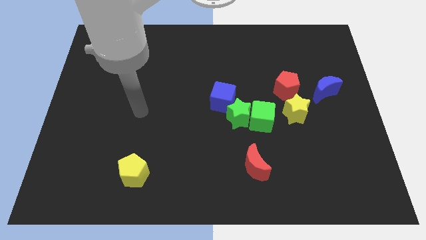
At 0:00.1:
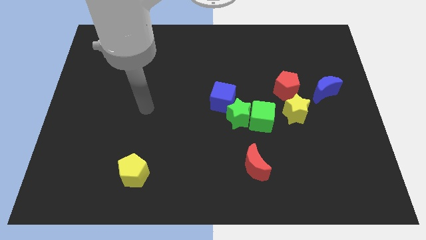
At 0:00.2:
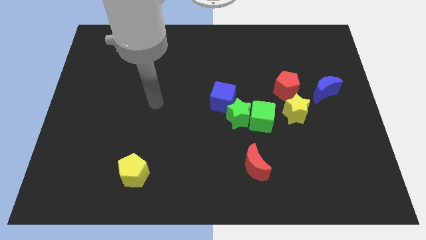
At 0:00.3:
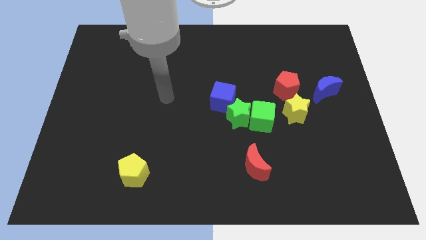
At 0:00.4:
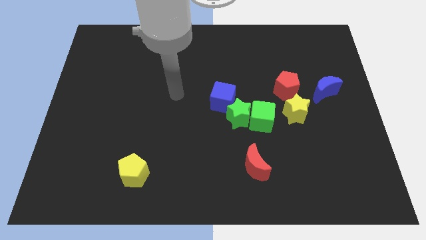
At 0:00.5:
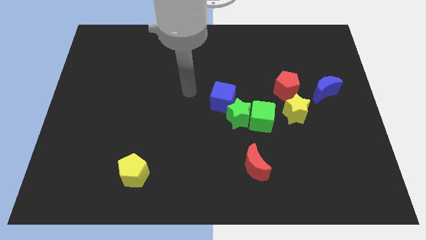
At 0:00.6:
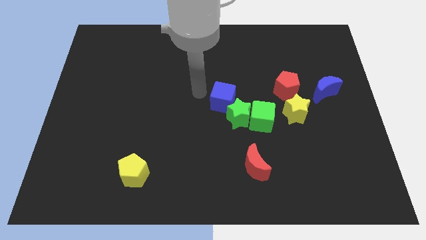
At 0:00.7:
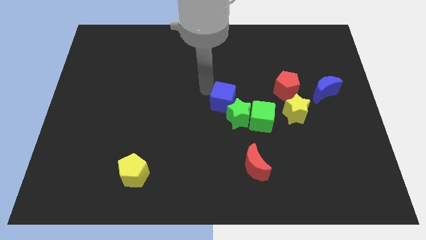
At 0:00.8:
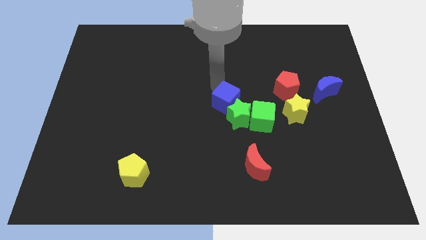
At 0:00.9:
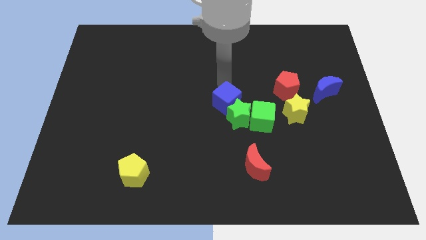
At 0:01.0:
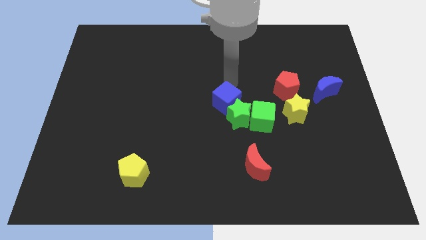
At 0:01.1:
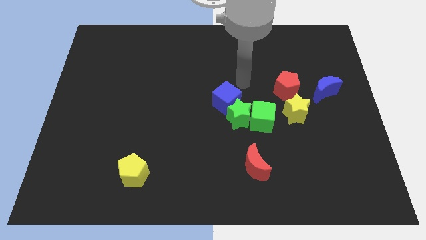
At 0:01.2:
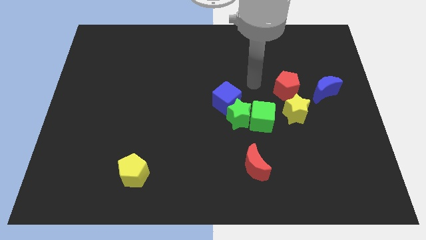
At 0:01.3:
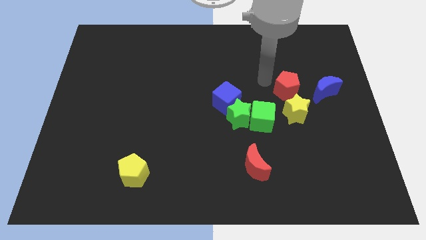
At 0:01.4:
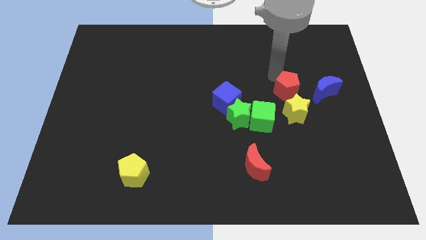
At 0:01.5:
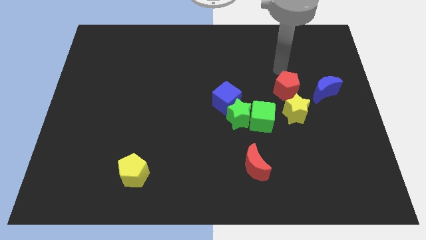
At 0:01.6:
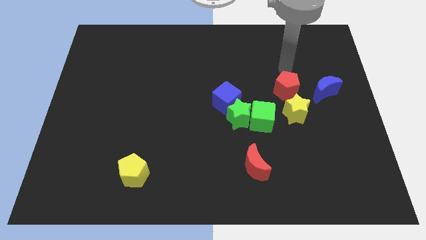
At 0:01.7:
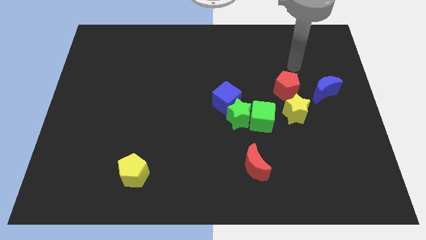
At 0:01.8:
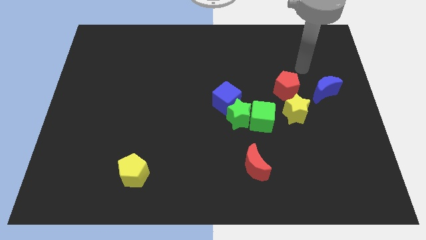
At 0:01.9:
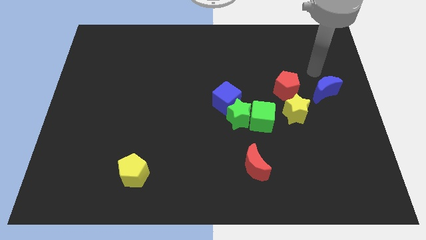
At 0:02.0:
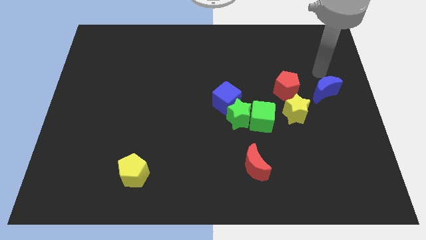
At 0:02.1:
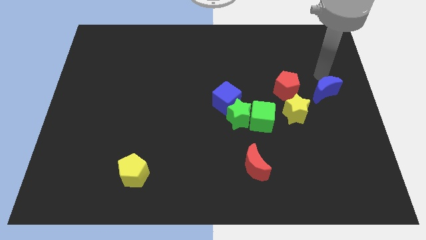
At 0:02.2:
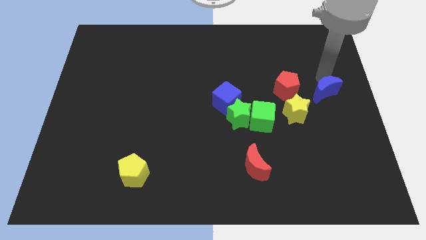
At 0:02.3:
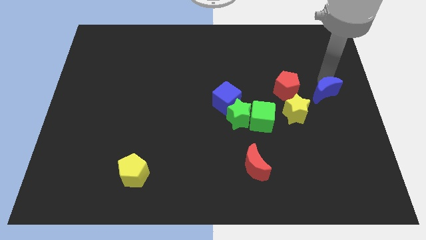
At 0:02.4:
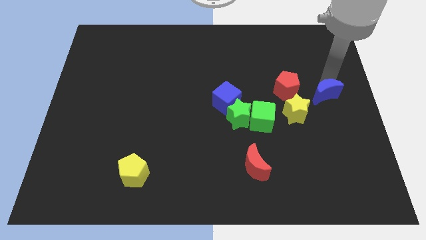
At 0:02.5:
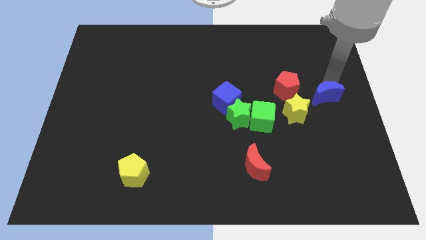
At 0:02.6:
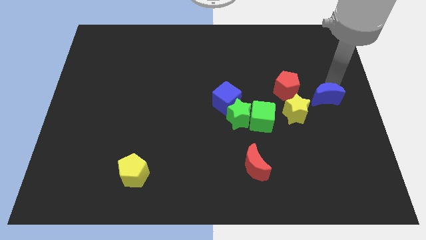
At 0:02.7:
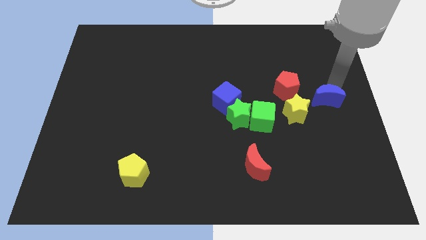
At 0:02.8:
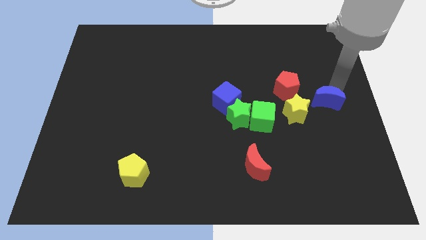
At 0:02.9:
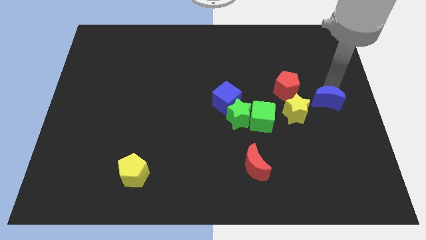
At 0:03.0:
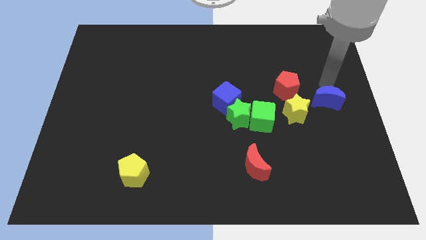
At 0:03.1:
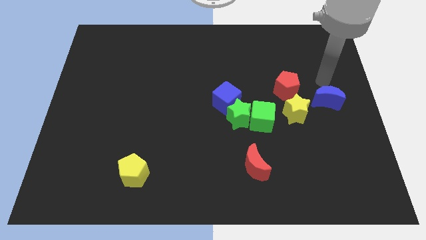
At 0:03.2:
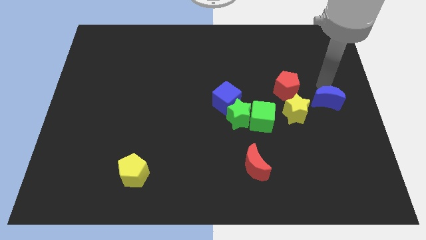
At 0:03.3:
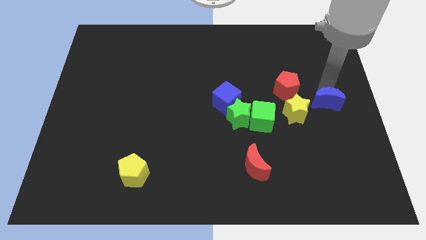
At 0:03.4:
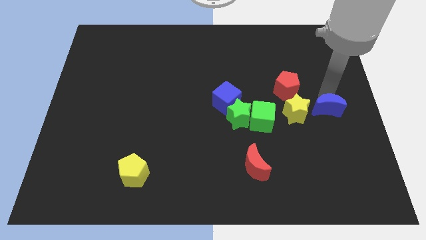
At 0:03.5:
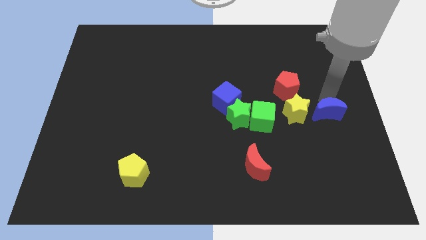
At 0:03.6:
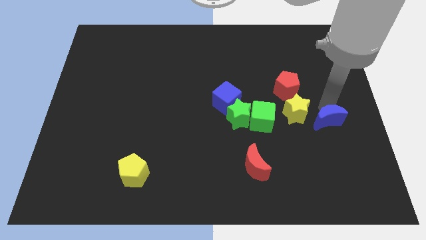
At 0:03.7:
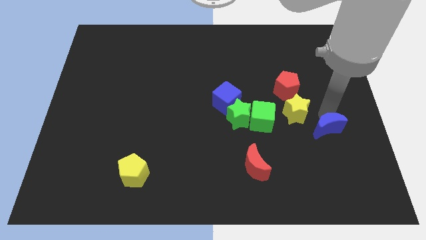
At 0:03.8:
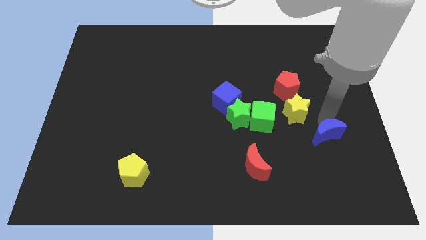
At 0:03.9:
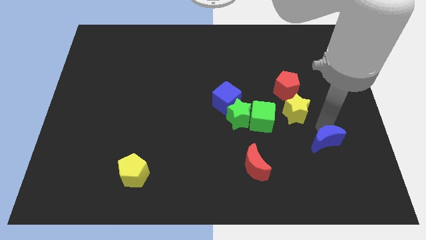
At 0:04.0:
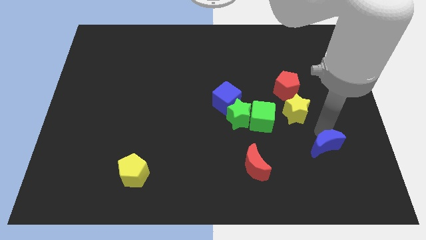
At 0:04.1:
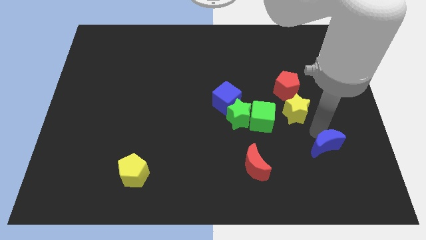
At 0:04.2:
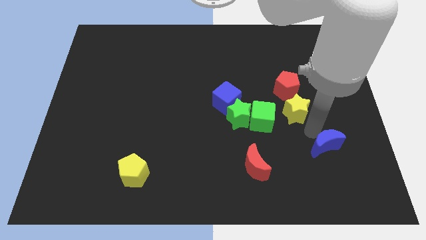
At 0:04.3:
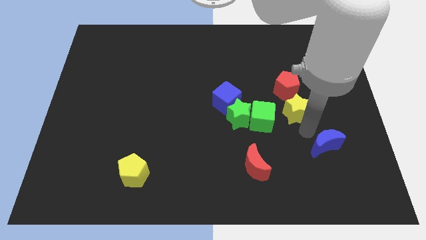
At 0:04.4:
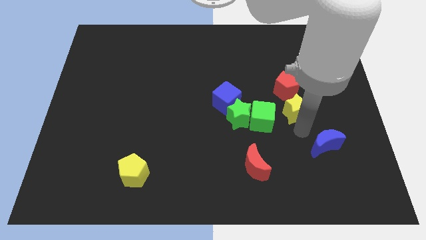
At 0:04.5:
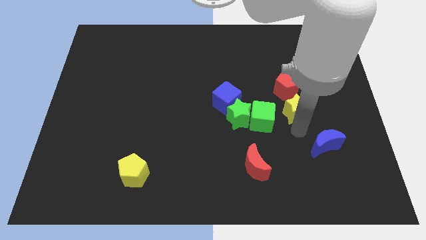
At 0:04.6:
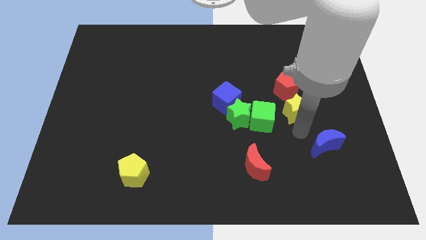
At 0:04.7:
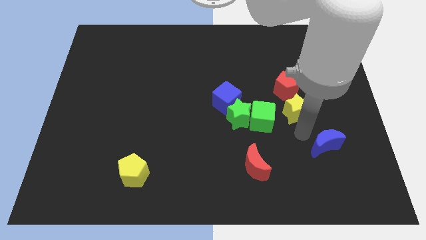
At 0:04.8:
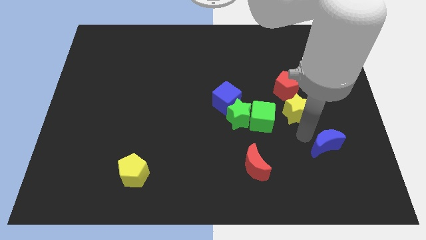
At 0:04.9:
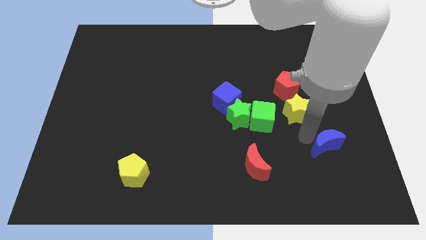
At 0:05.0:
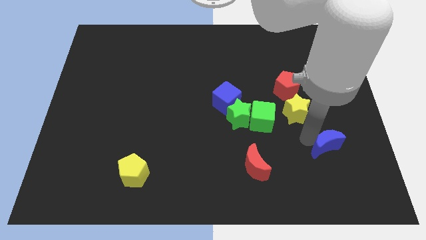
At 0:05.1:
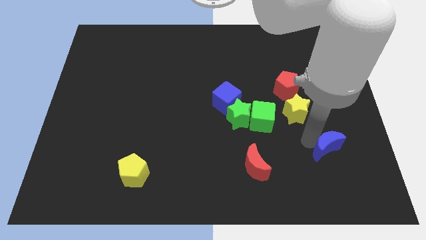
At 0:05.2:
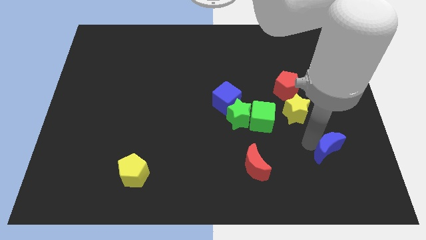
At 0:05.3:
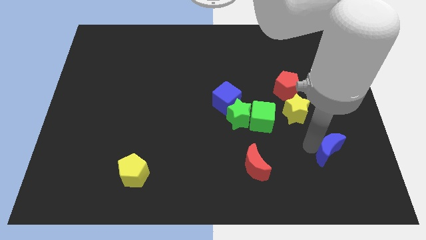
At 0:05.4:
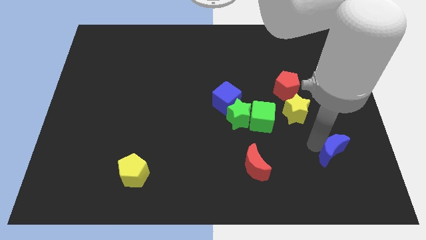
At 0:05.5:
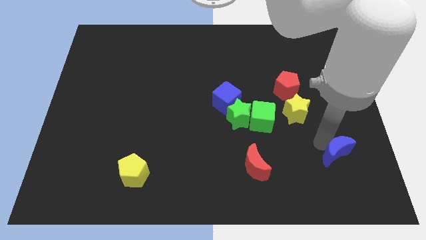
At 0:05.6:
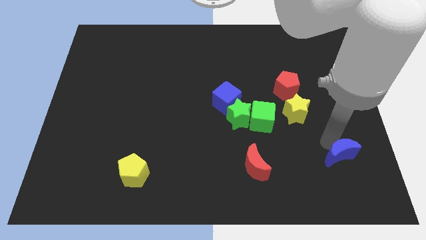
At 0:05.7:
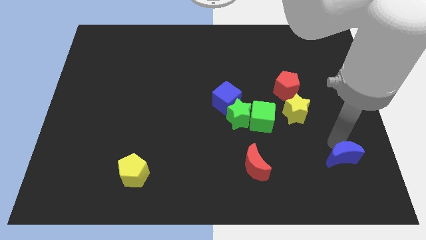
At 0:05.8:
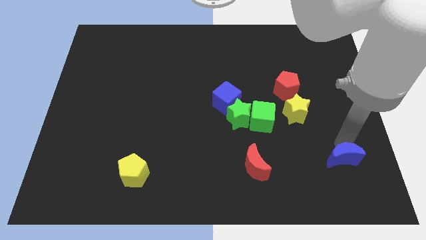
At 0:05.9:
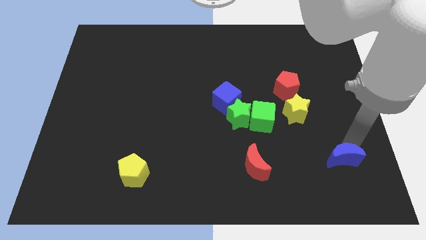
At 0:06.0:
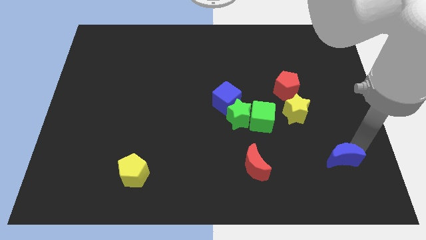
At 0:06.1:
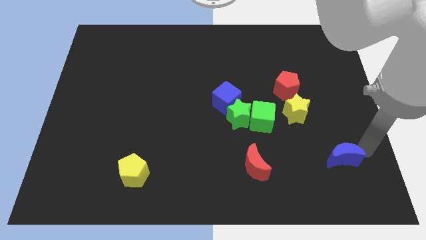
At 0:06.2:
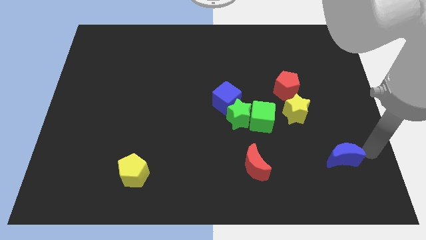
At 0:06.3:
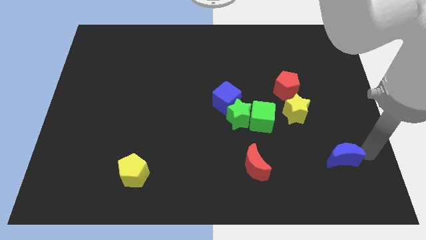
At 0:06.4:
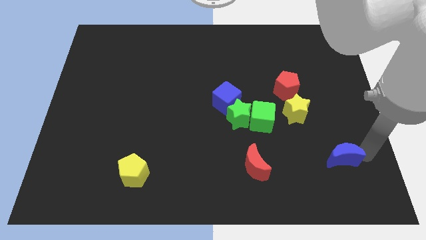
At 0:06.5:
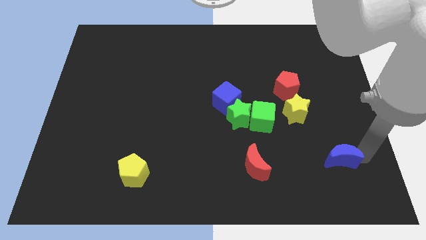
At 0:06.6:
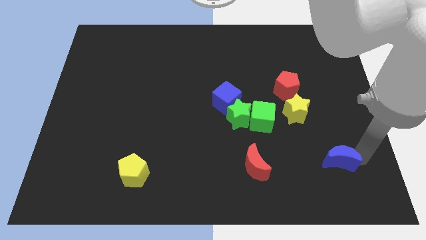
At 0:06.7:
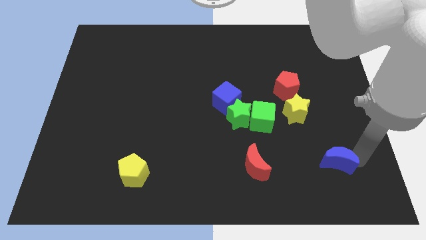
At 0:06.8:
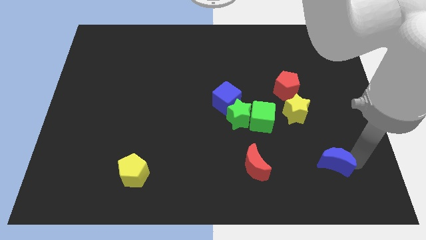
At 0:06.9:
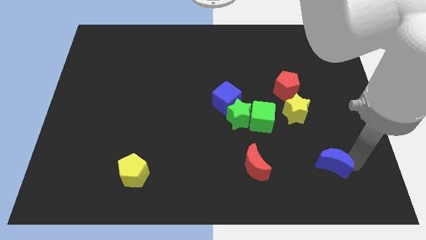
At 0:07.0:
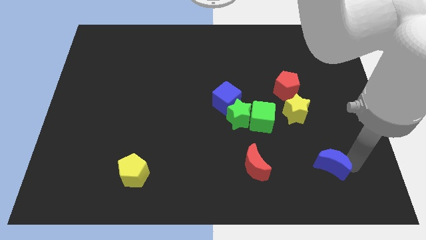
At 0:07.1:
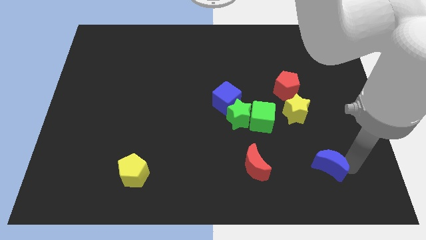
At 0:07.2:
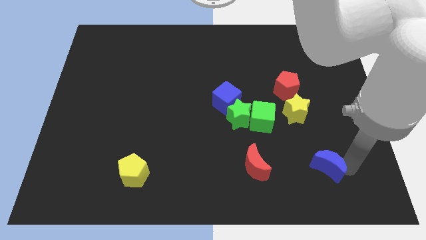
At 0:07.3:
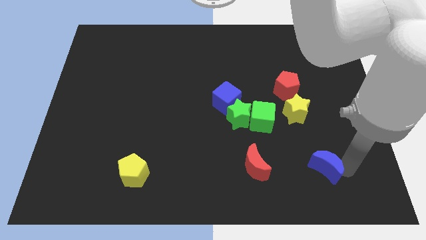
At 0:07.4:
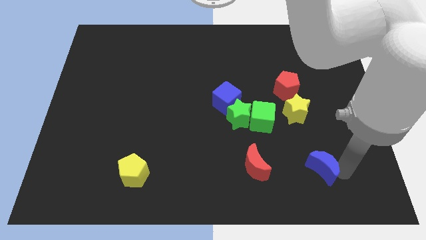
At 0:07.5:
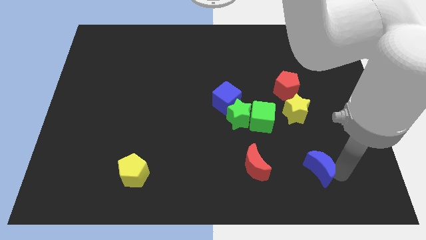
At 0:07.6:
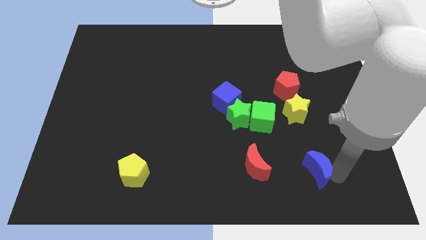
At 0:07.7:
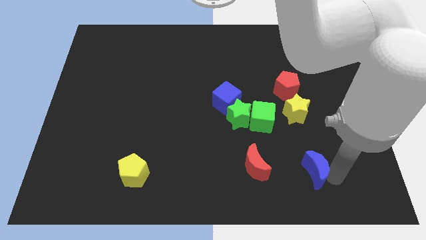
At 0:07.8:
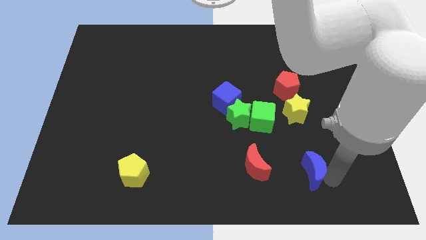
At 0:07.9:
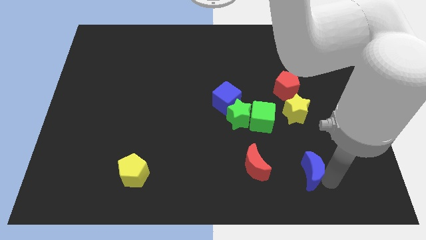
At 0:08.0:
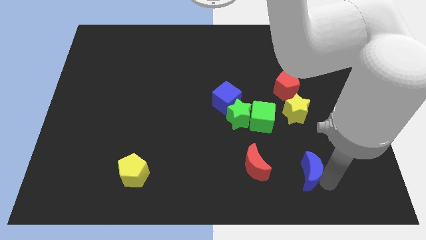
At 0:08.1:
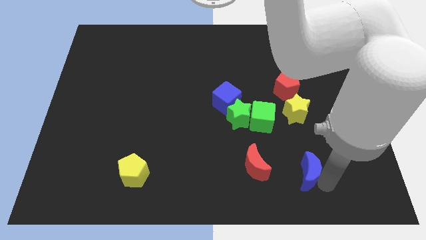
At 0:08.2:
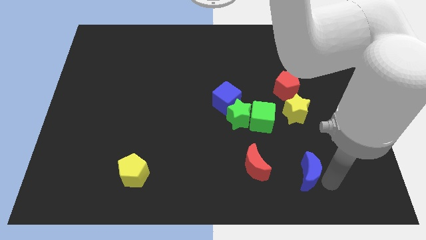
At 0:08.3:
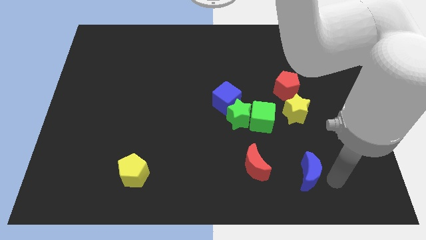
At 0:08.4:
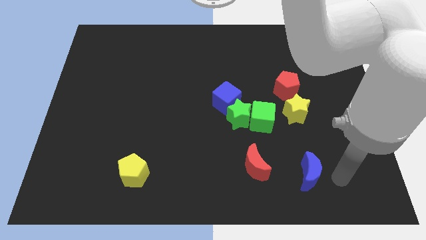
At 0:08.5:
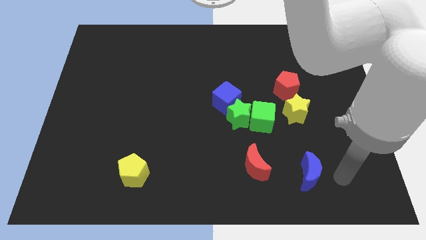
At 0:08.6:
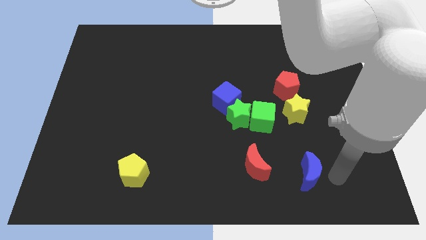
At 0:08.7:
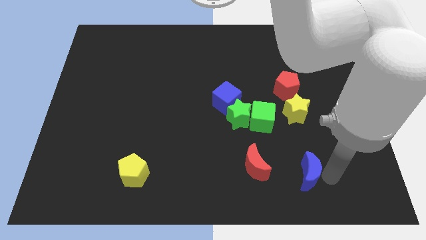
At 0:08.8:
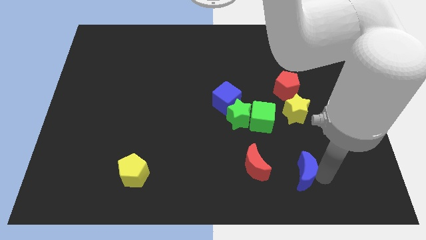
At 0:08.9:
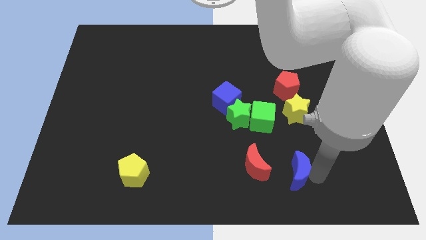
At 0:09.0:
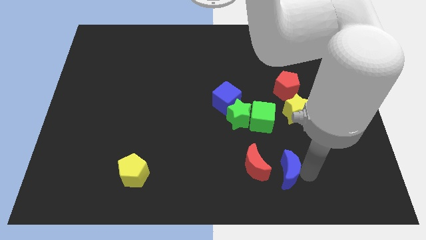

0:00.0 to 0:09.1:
push the blue moon below the green cube
